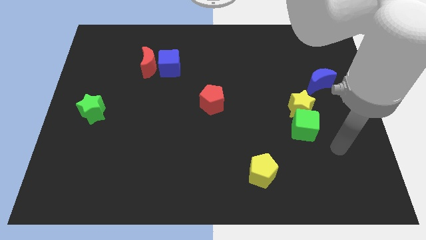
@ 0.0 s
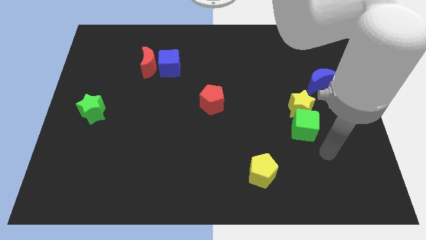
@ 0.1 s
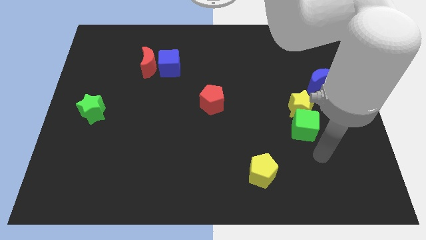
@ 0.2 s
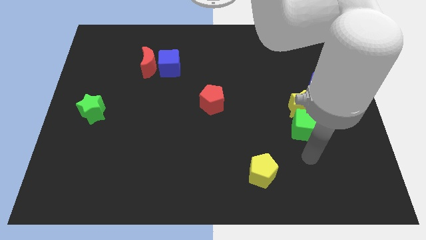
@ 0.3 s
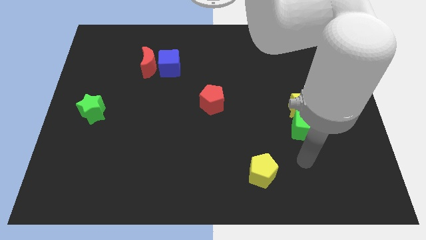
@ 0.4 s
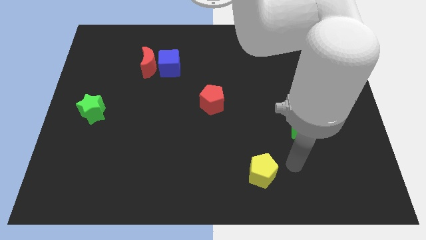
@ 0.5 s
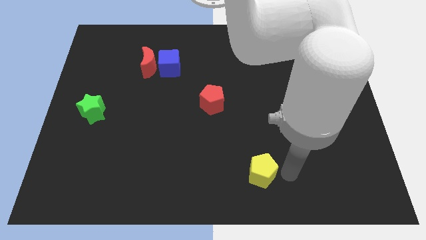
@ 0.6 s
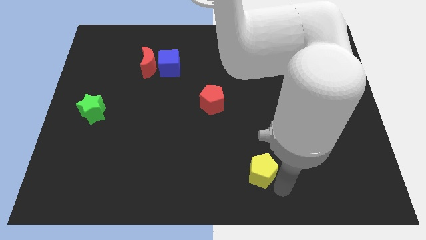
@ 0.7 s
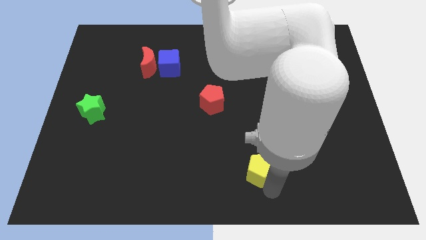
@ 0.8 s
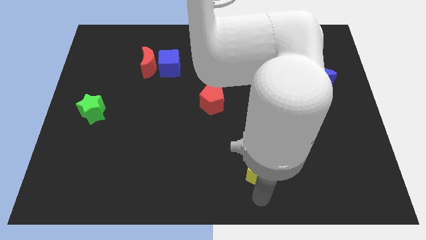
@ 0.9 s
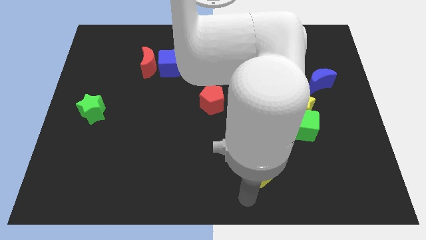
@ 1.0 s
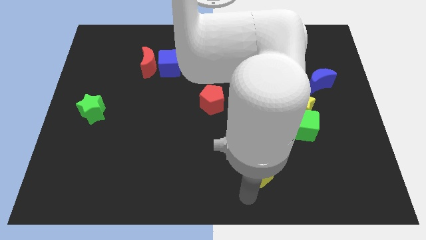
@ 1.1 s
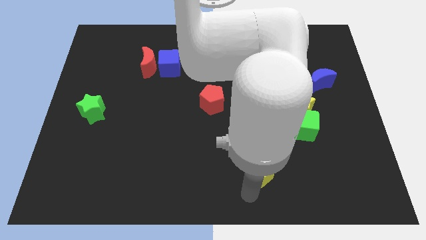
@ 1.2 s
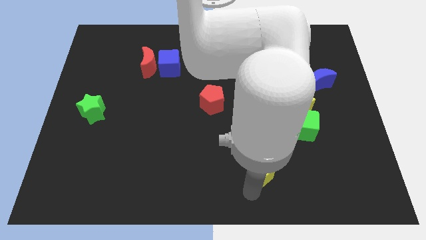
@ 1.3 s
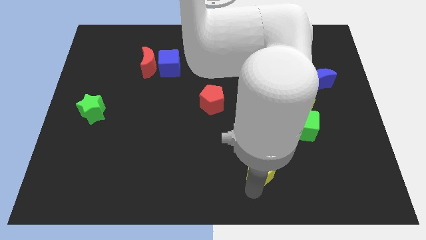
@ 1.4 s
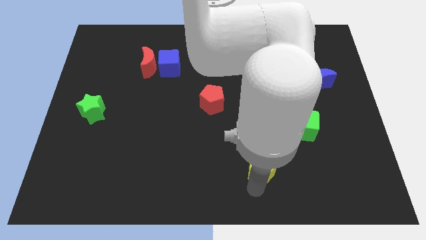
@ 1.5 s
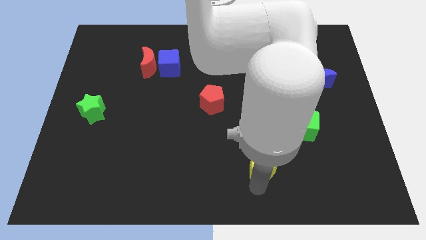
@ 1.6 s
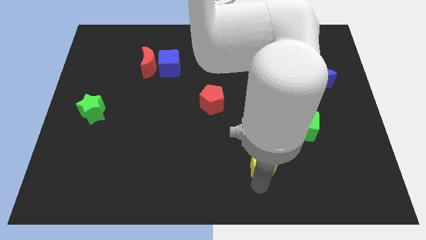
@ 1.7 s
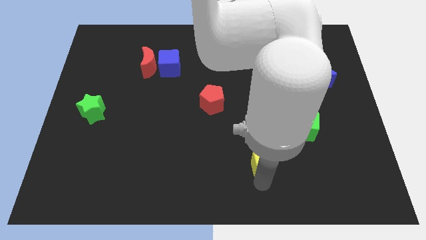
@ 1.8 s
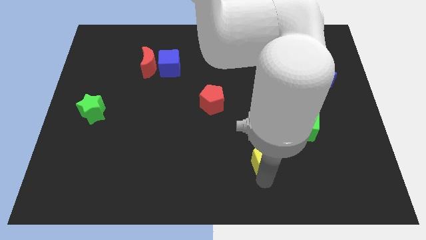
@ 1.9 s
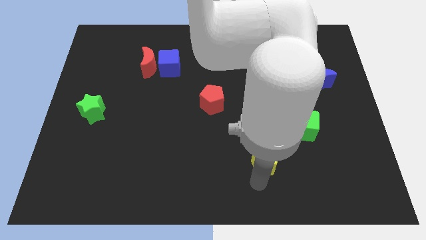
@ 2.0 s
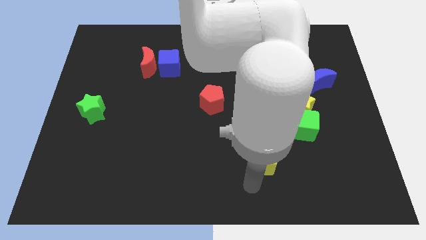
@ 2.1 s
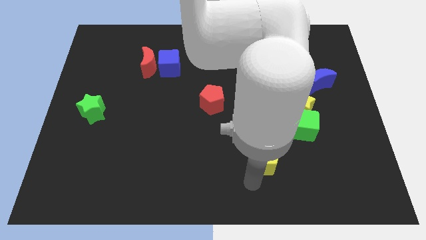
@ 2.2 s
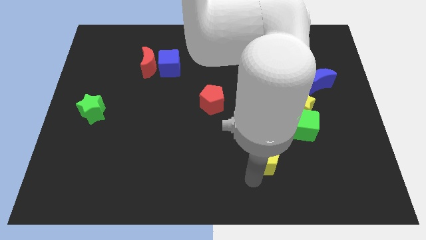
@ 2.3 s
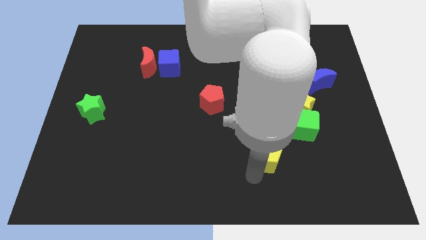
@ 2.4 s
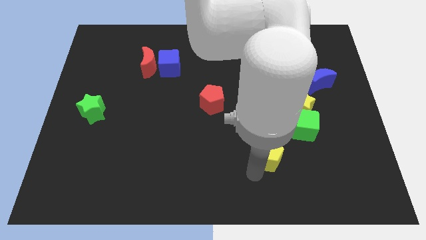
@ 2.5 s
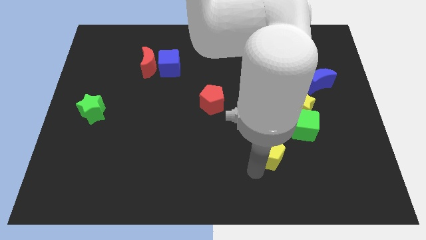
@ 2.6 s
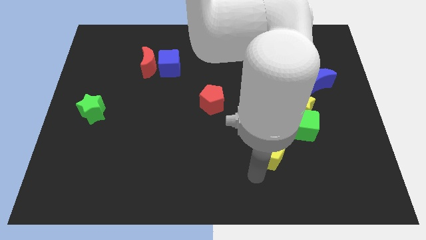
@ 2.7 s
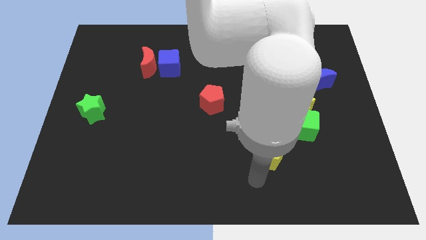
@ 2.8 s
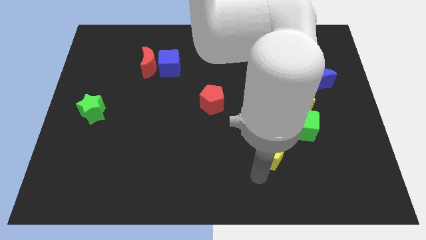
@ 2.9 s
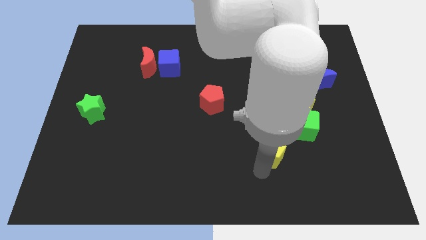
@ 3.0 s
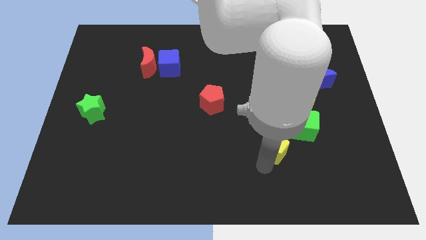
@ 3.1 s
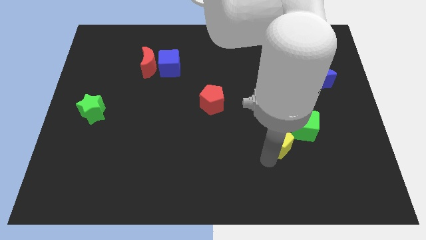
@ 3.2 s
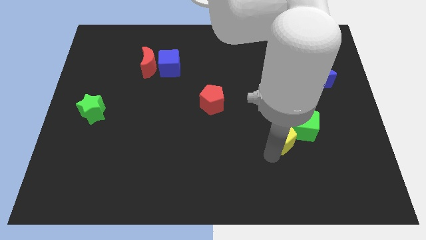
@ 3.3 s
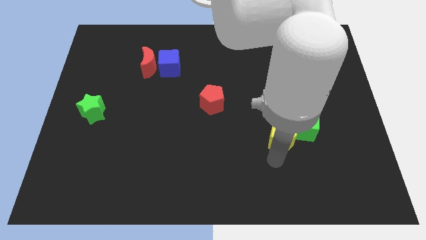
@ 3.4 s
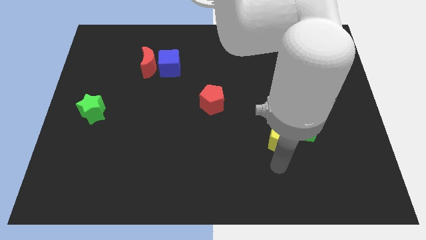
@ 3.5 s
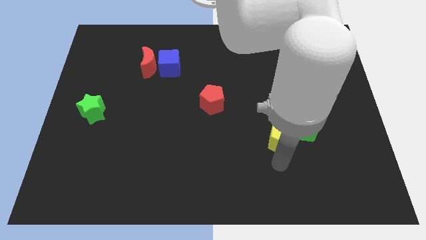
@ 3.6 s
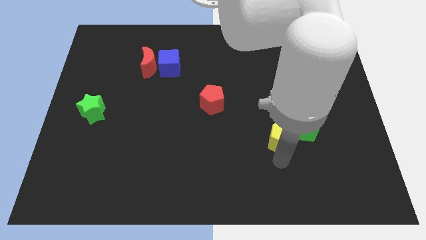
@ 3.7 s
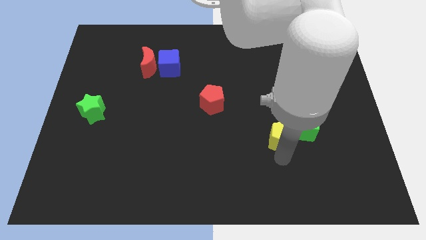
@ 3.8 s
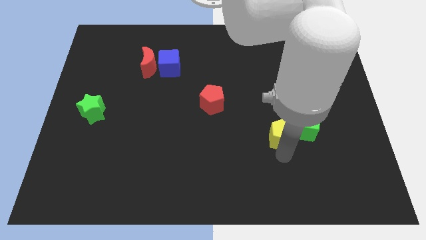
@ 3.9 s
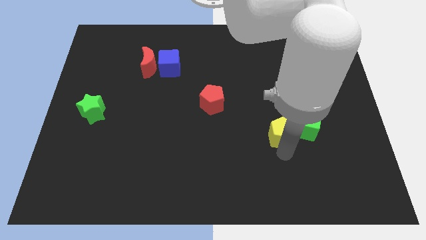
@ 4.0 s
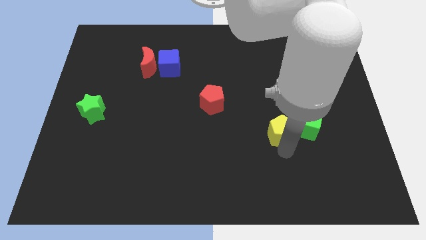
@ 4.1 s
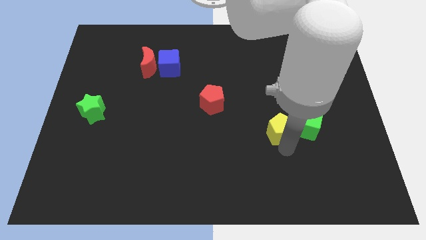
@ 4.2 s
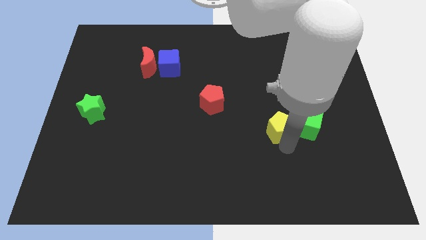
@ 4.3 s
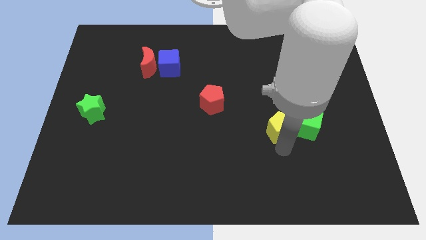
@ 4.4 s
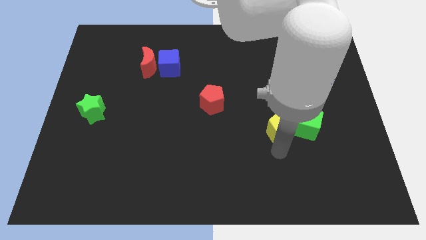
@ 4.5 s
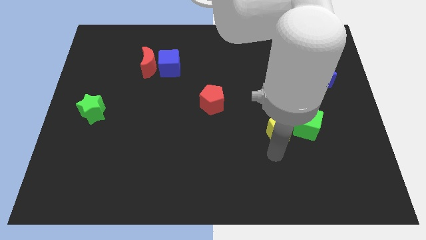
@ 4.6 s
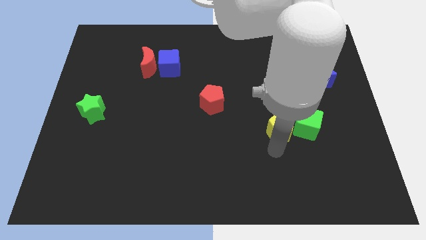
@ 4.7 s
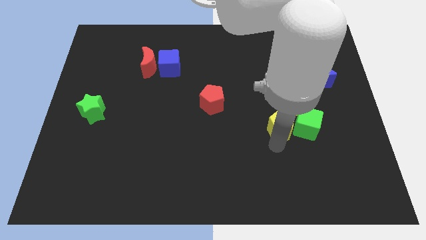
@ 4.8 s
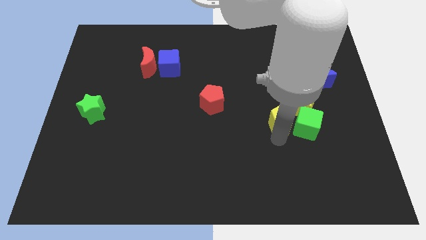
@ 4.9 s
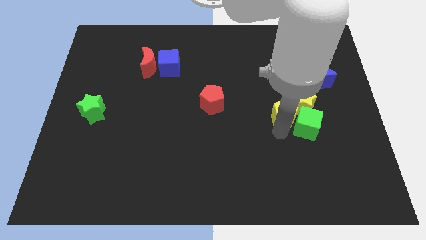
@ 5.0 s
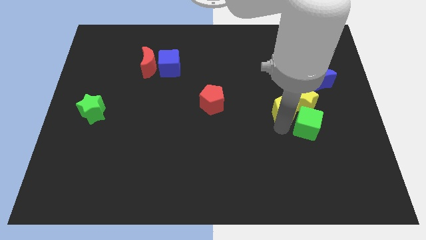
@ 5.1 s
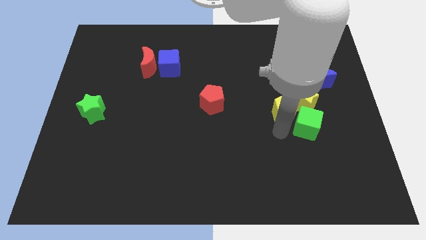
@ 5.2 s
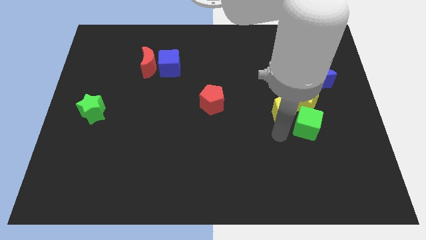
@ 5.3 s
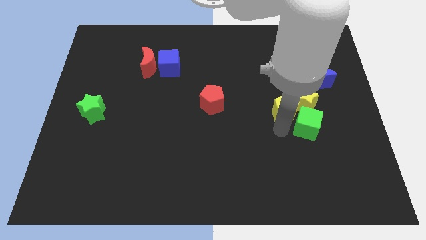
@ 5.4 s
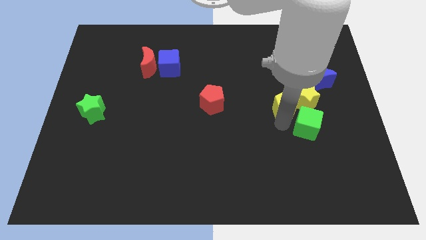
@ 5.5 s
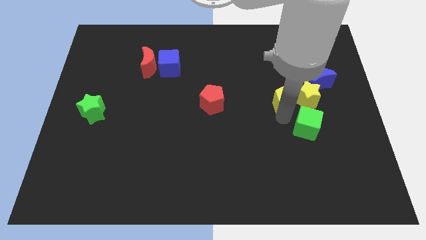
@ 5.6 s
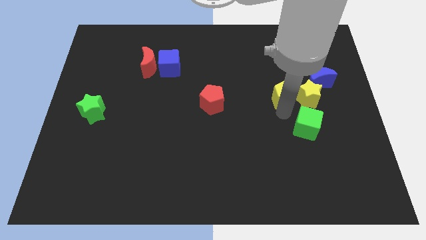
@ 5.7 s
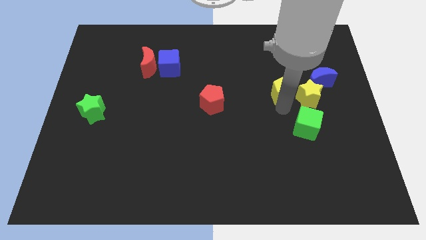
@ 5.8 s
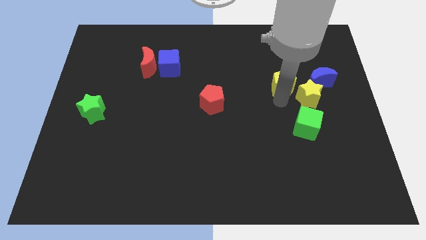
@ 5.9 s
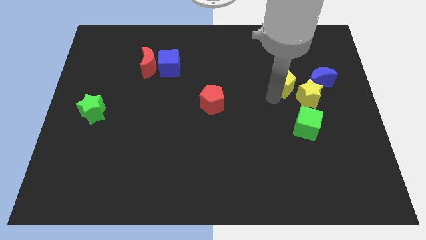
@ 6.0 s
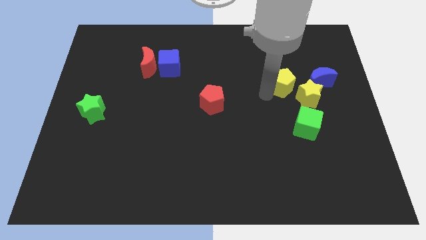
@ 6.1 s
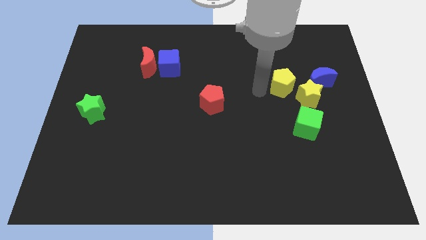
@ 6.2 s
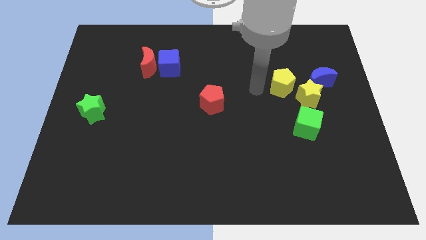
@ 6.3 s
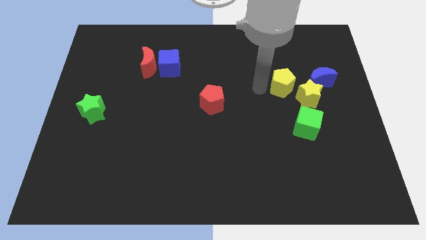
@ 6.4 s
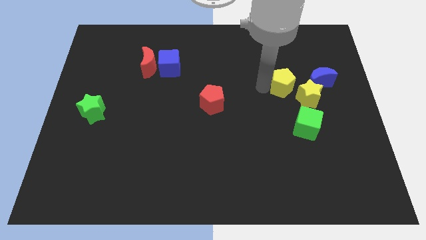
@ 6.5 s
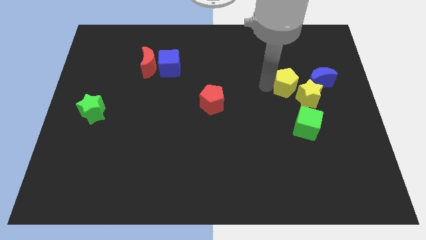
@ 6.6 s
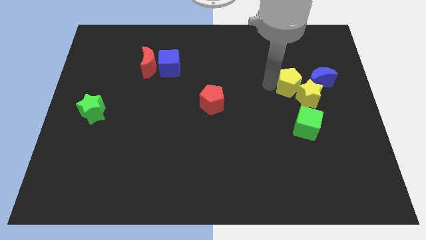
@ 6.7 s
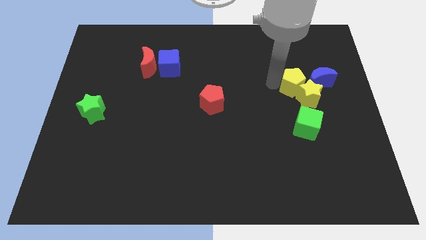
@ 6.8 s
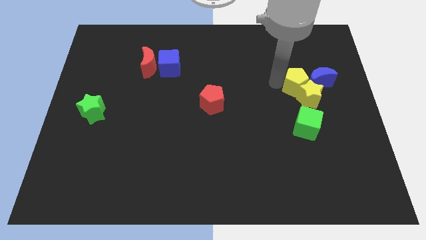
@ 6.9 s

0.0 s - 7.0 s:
move the yellow pentagon towards the blue moon
